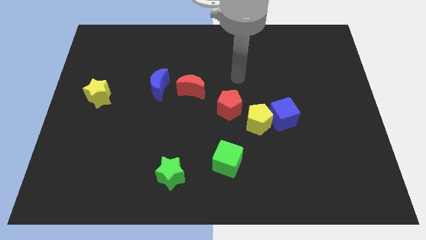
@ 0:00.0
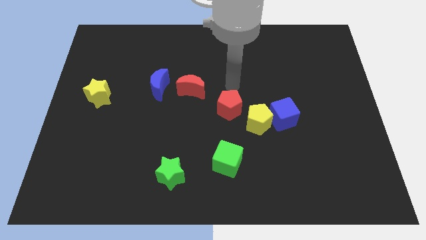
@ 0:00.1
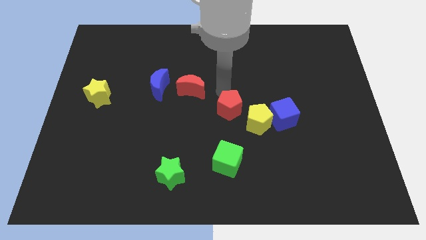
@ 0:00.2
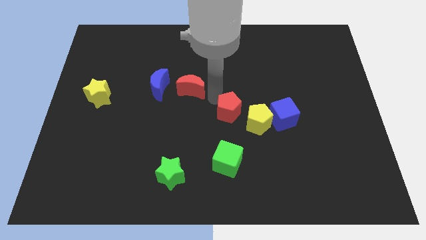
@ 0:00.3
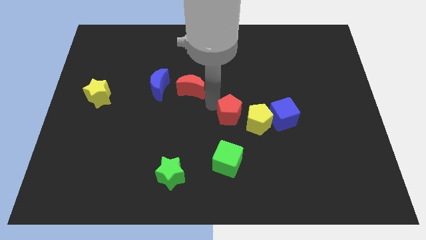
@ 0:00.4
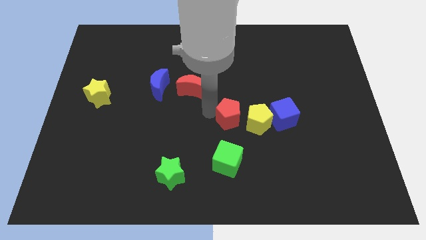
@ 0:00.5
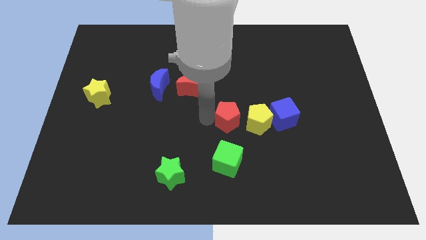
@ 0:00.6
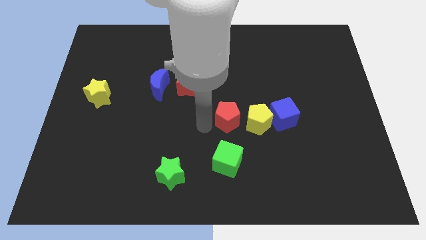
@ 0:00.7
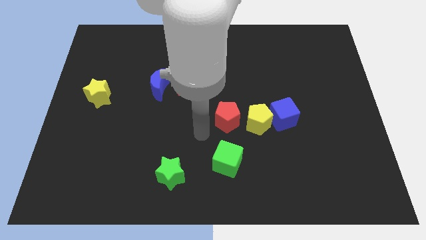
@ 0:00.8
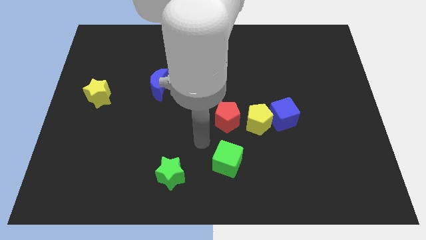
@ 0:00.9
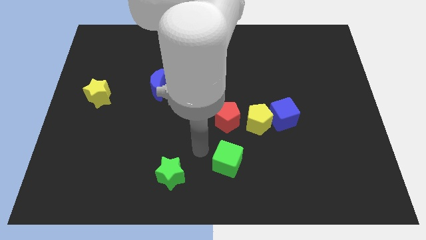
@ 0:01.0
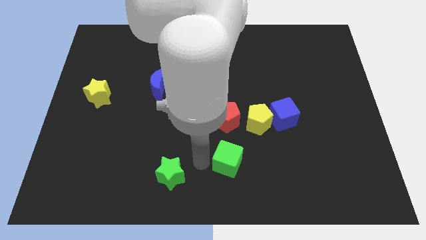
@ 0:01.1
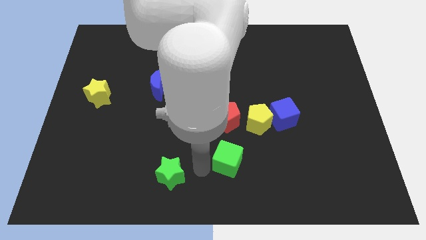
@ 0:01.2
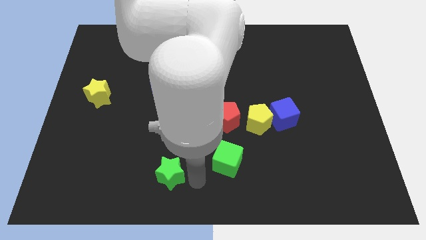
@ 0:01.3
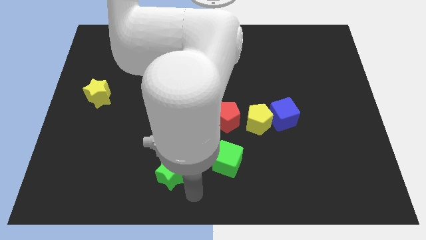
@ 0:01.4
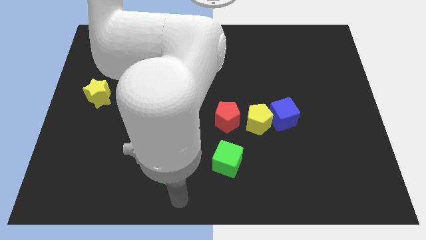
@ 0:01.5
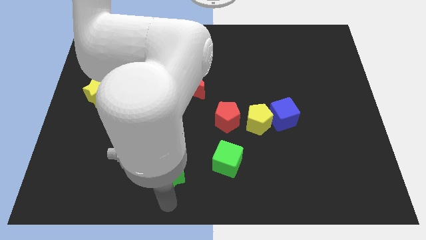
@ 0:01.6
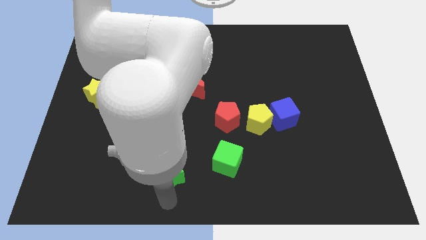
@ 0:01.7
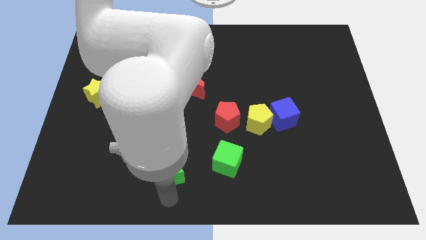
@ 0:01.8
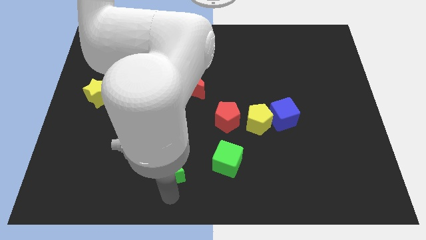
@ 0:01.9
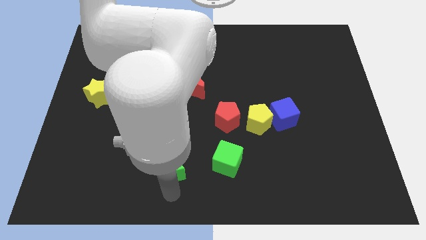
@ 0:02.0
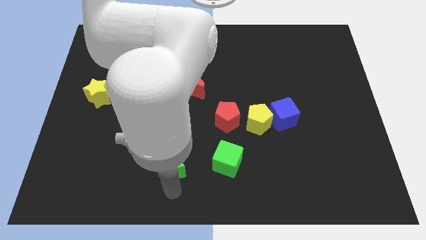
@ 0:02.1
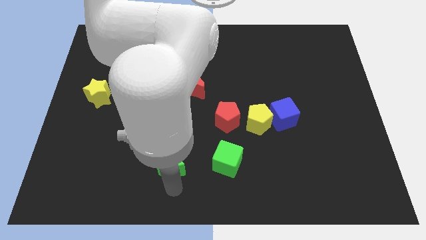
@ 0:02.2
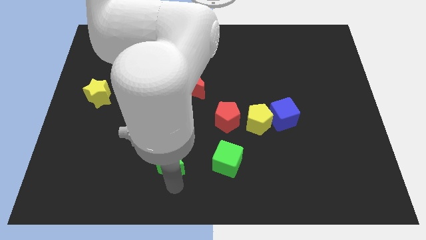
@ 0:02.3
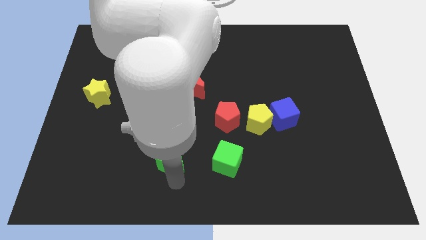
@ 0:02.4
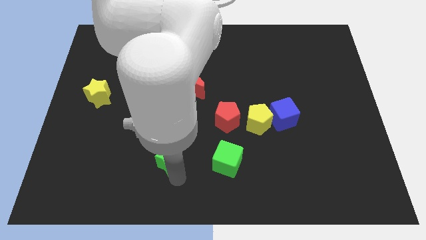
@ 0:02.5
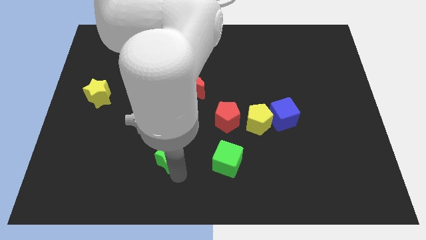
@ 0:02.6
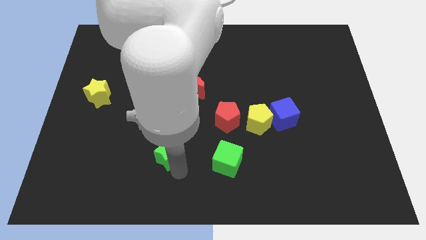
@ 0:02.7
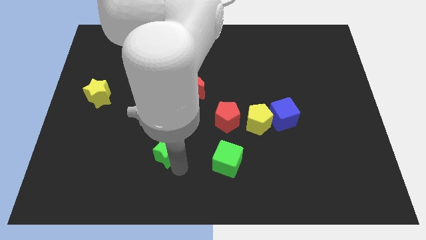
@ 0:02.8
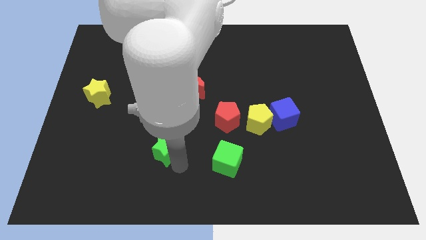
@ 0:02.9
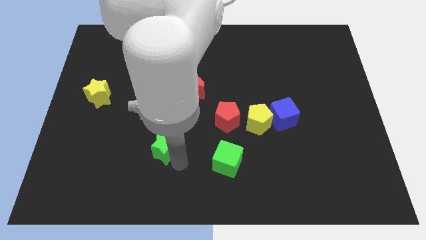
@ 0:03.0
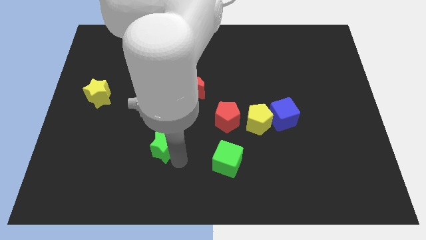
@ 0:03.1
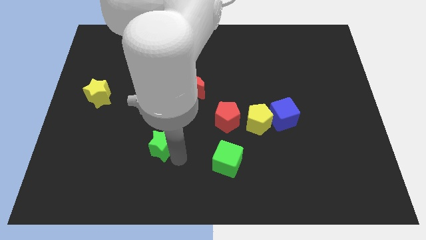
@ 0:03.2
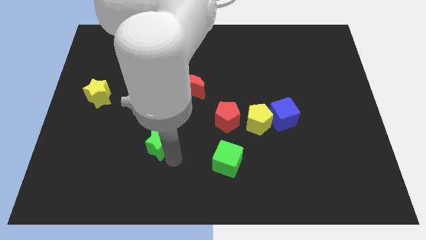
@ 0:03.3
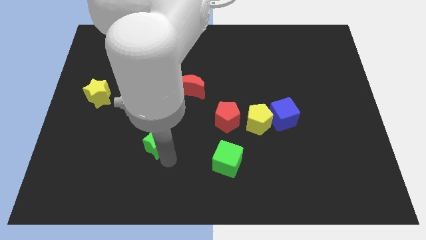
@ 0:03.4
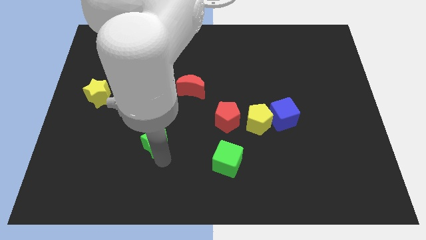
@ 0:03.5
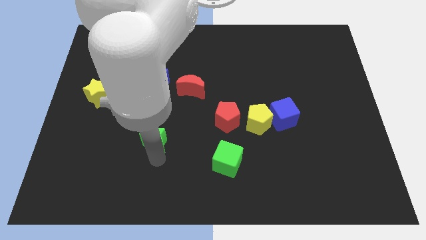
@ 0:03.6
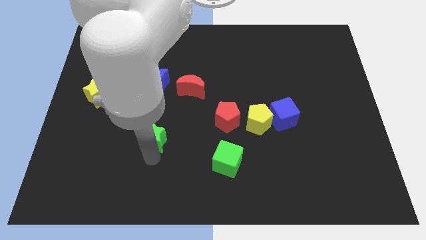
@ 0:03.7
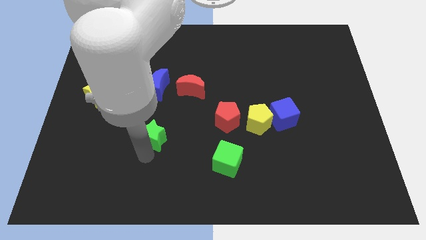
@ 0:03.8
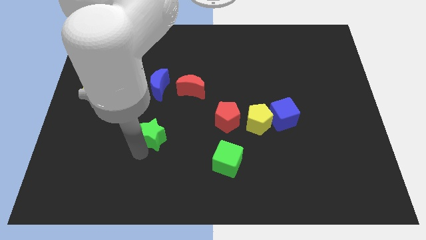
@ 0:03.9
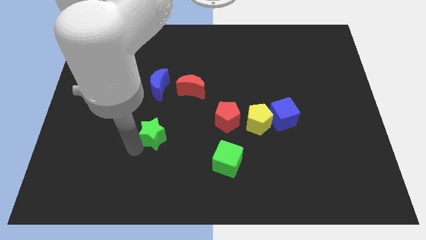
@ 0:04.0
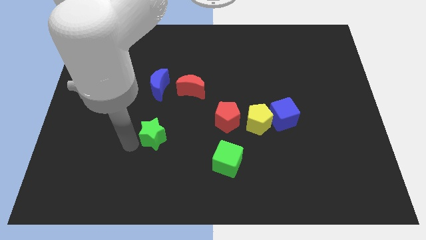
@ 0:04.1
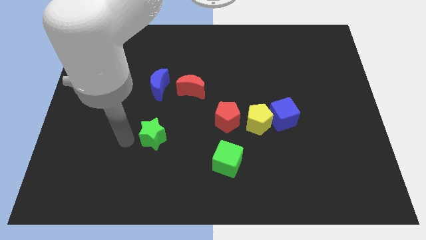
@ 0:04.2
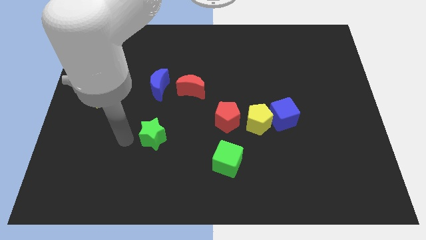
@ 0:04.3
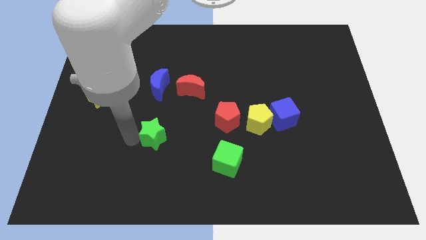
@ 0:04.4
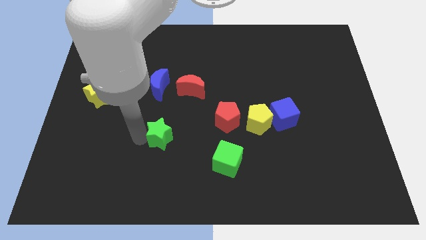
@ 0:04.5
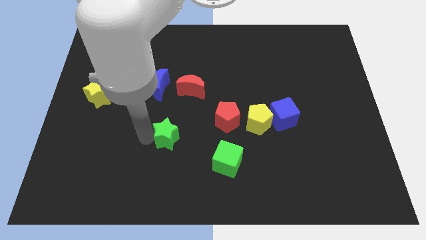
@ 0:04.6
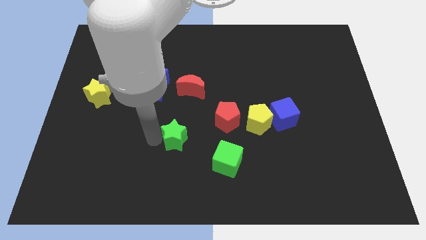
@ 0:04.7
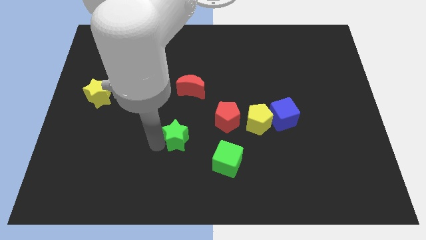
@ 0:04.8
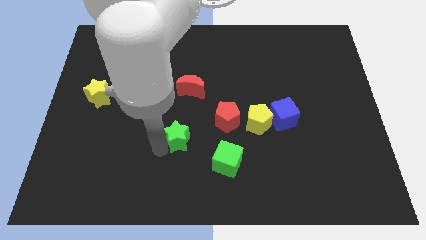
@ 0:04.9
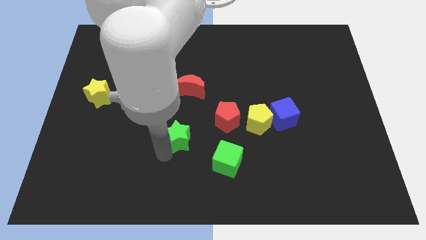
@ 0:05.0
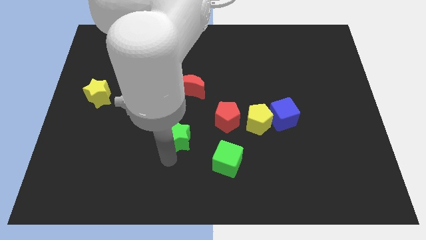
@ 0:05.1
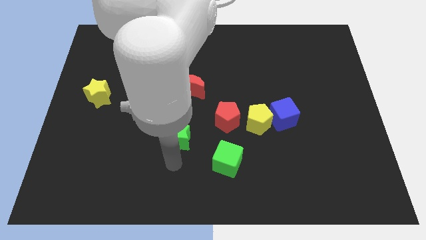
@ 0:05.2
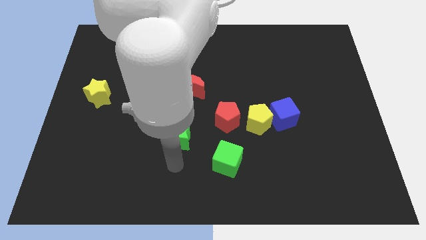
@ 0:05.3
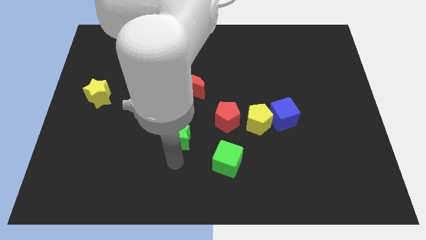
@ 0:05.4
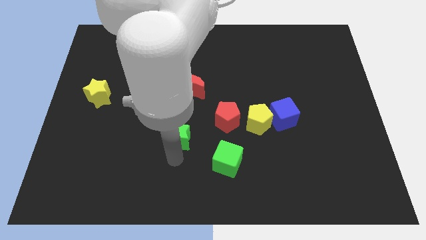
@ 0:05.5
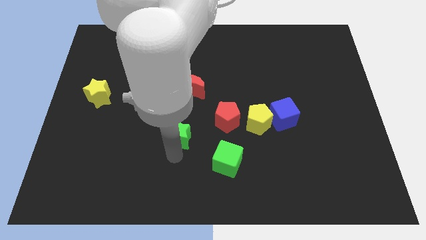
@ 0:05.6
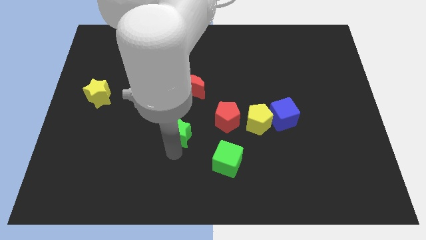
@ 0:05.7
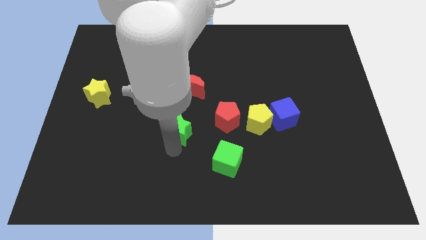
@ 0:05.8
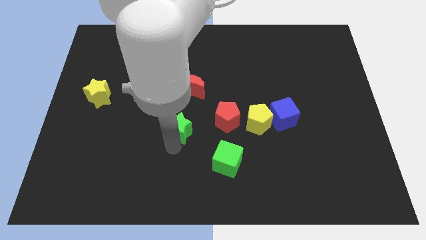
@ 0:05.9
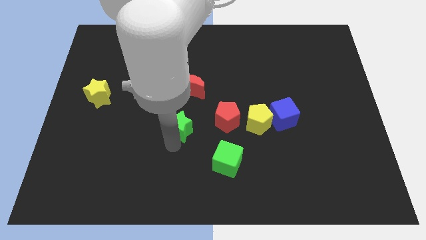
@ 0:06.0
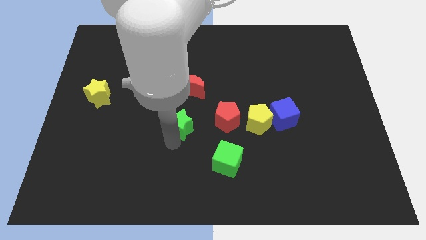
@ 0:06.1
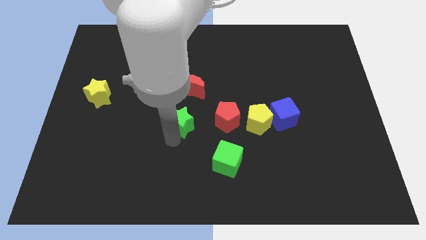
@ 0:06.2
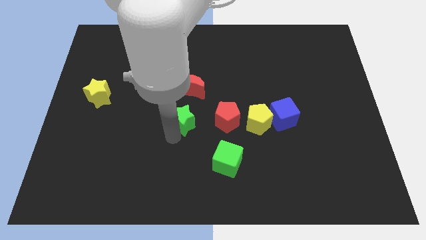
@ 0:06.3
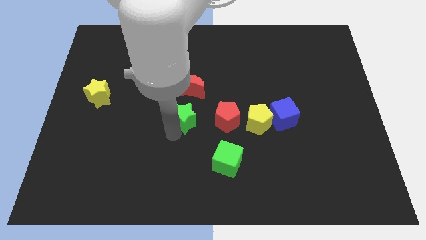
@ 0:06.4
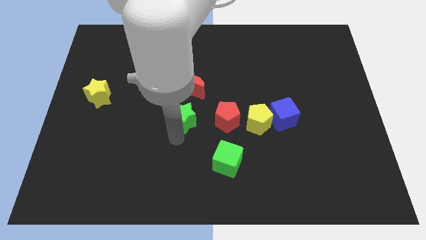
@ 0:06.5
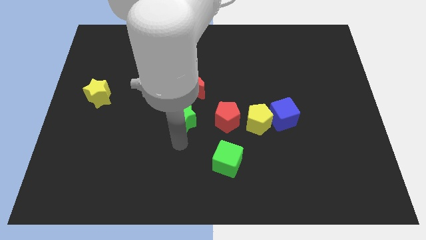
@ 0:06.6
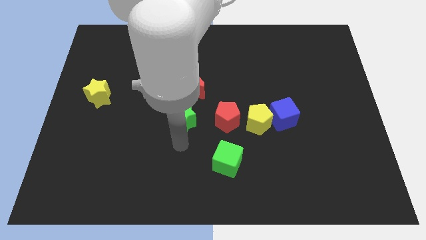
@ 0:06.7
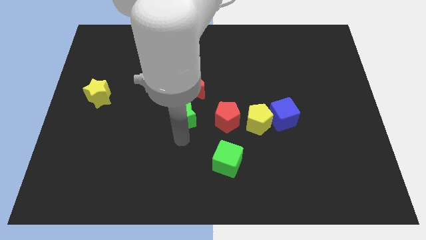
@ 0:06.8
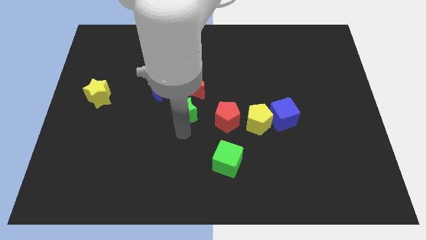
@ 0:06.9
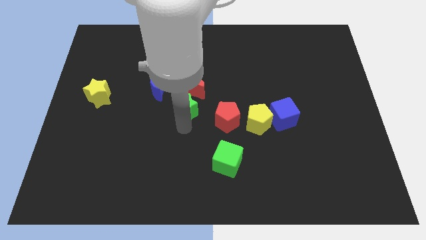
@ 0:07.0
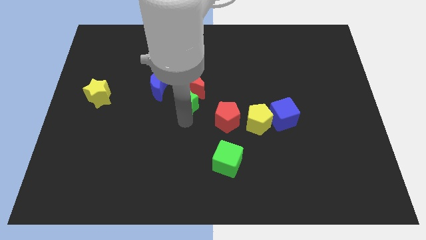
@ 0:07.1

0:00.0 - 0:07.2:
put the green star close to the red moon
